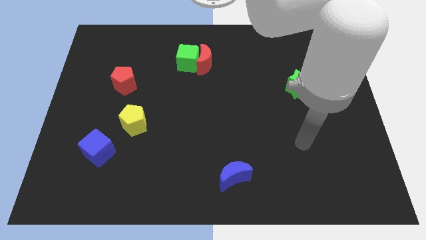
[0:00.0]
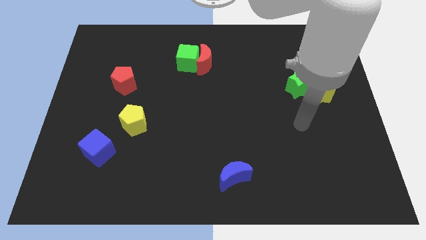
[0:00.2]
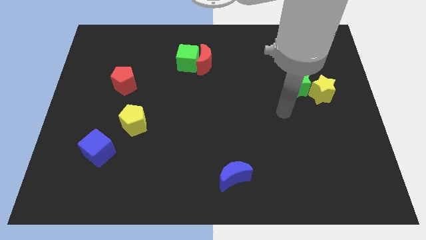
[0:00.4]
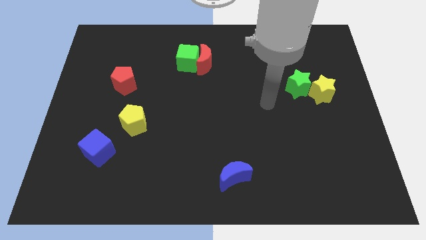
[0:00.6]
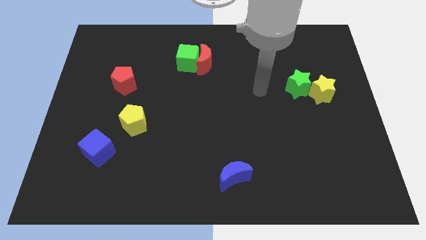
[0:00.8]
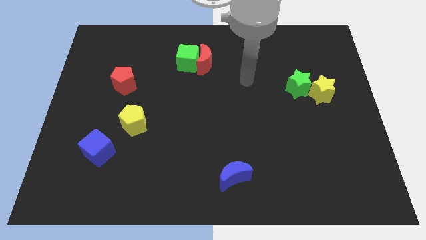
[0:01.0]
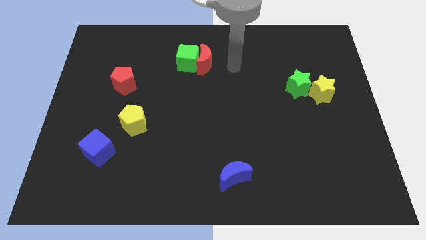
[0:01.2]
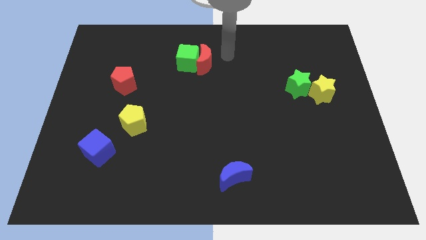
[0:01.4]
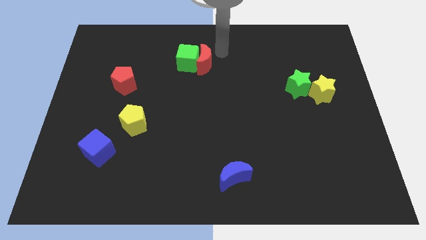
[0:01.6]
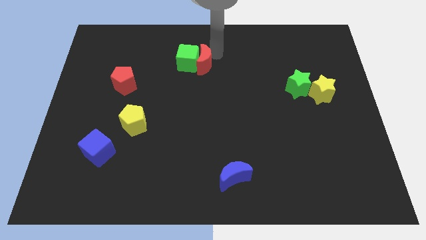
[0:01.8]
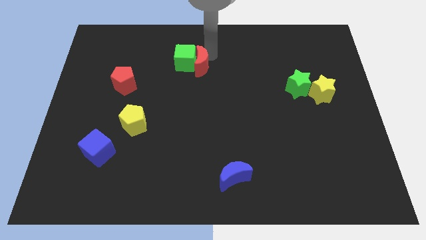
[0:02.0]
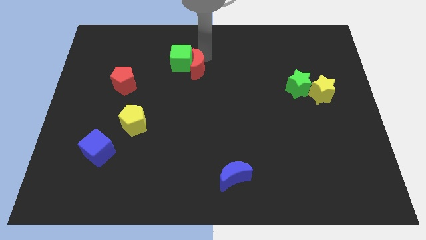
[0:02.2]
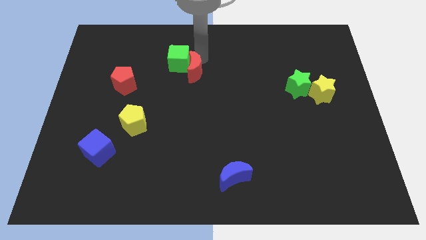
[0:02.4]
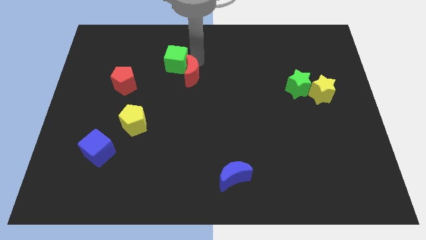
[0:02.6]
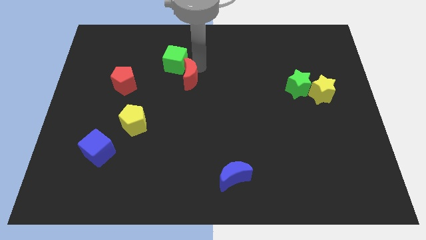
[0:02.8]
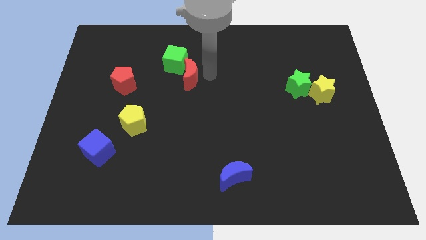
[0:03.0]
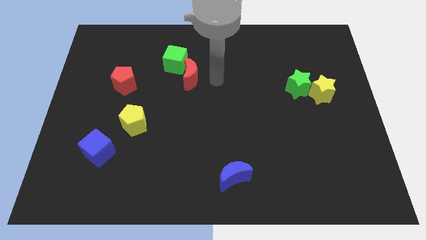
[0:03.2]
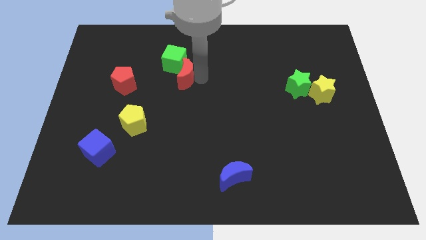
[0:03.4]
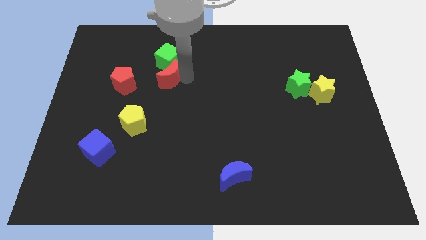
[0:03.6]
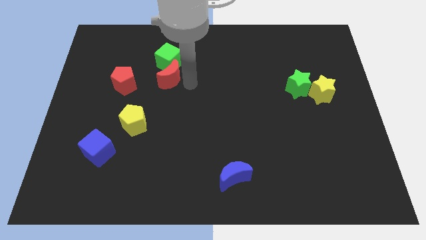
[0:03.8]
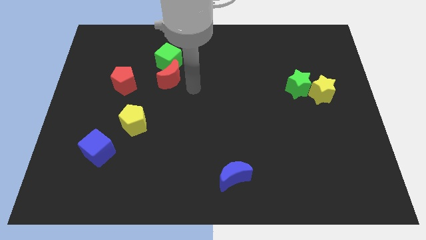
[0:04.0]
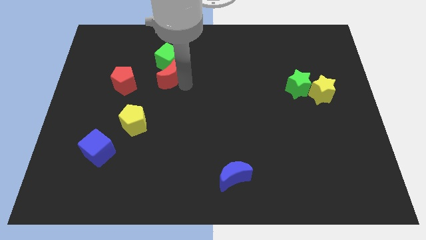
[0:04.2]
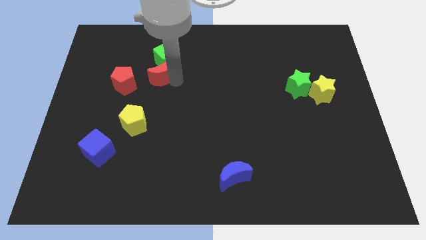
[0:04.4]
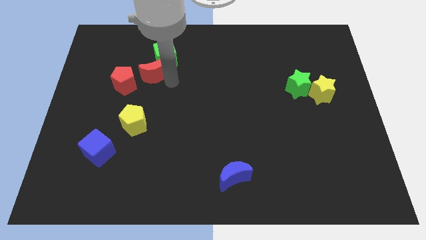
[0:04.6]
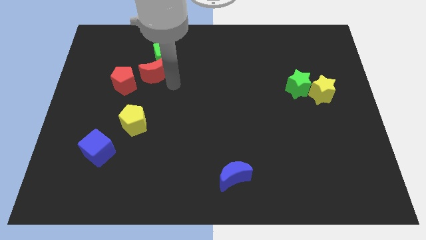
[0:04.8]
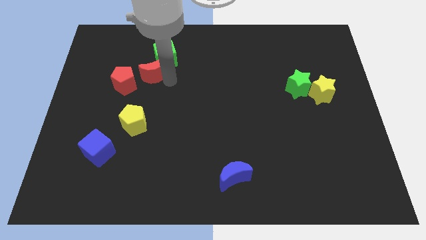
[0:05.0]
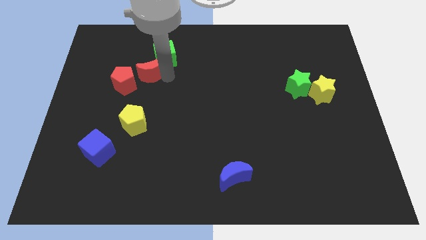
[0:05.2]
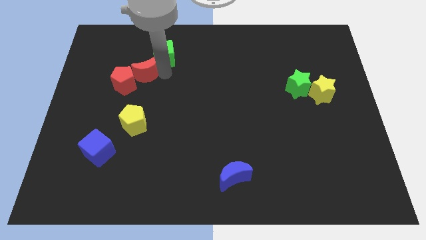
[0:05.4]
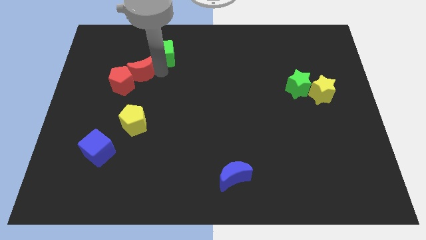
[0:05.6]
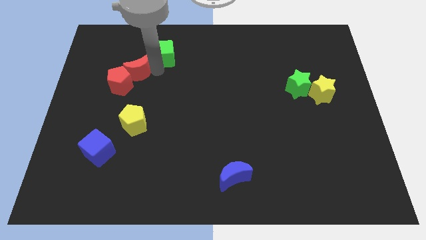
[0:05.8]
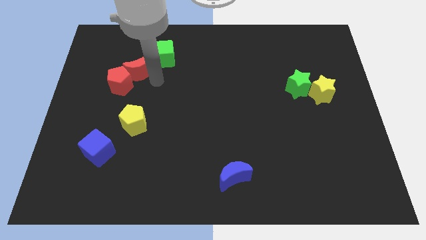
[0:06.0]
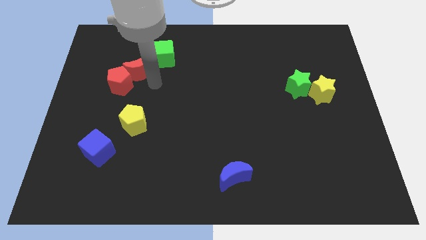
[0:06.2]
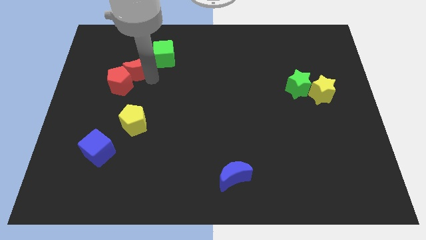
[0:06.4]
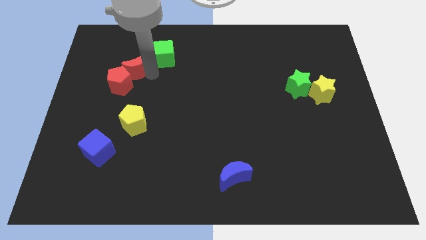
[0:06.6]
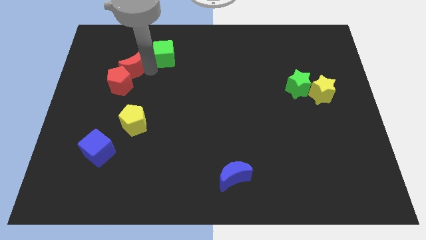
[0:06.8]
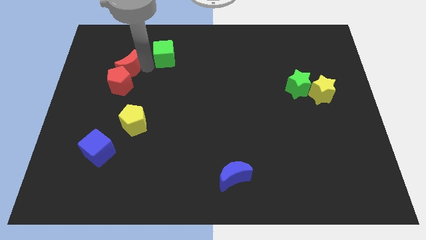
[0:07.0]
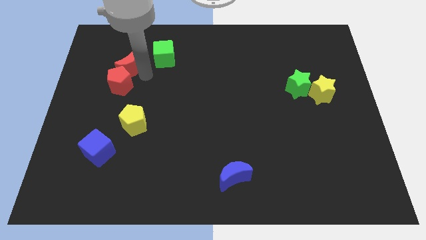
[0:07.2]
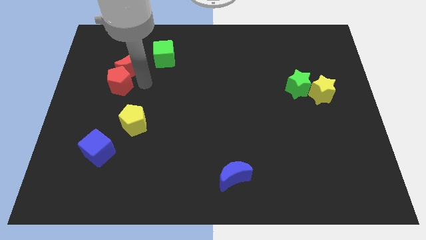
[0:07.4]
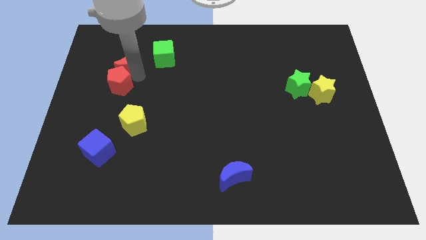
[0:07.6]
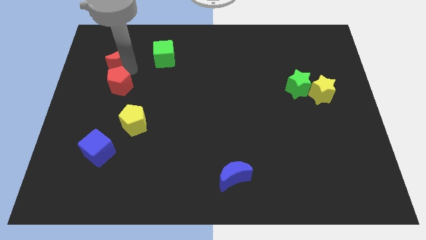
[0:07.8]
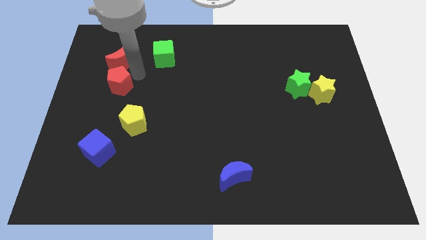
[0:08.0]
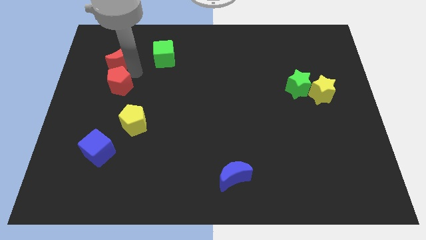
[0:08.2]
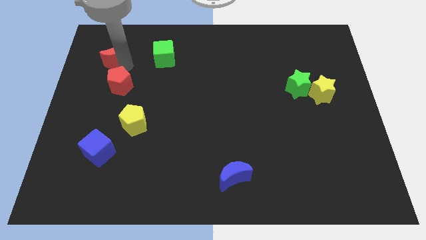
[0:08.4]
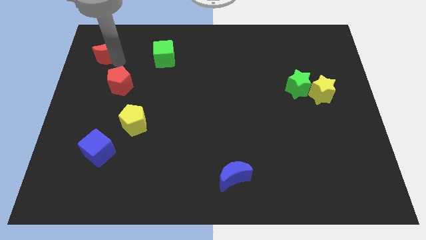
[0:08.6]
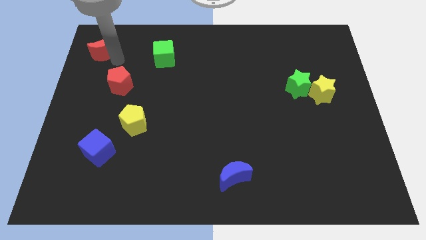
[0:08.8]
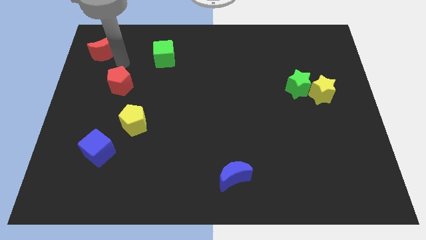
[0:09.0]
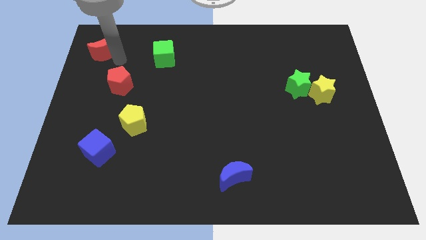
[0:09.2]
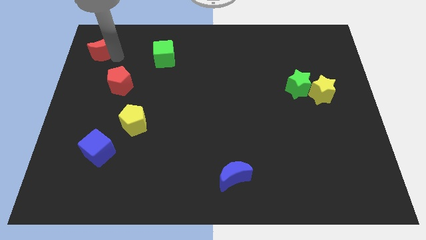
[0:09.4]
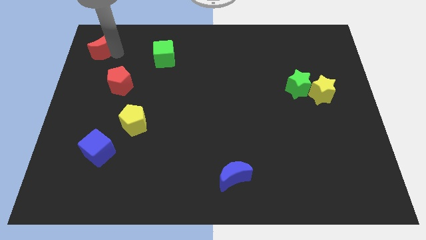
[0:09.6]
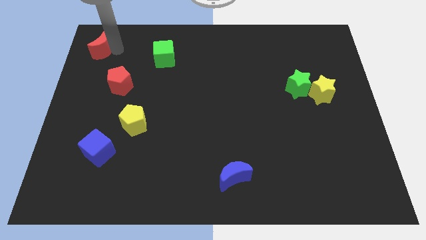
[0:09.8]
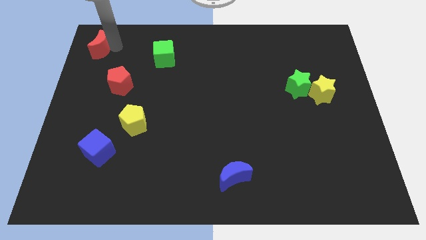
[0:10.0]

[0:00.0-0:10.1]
slide the red moon to the upper left corner

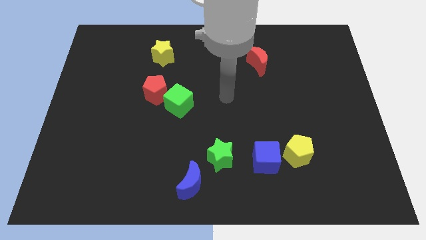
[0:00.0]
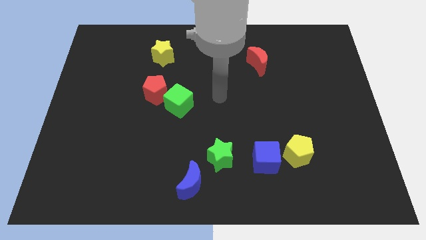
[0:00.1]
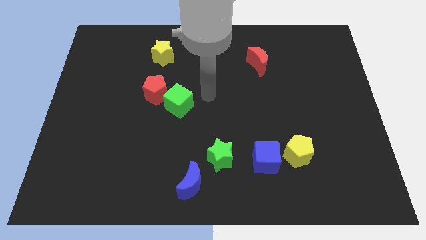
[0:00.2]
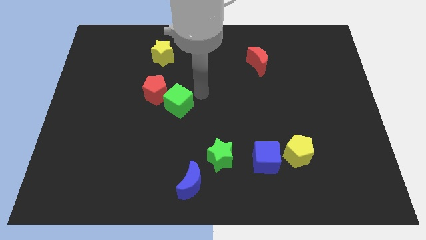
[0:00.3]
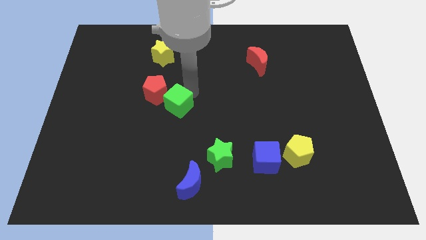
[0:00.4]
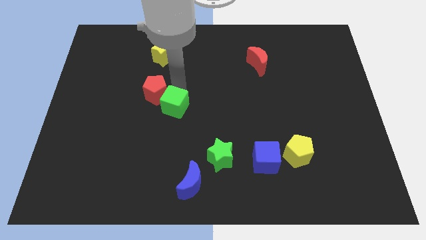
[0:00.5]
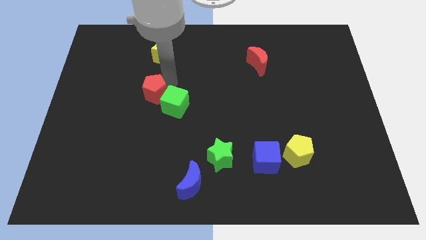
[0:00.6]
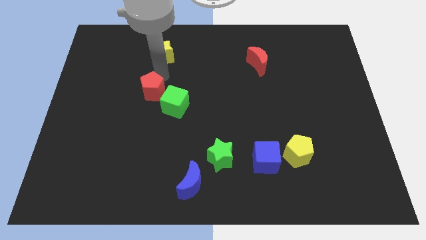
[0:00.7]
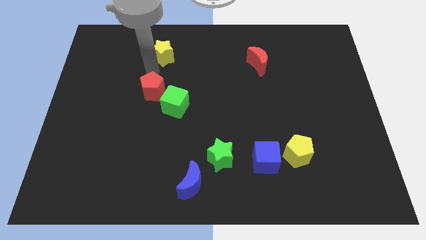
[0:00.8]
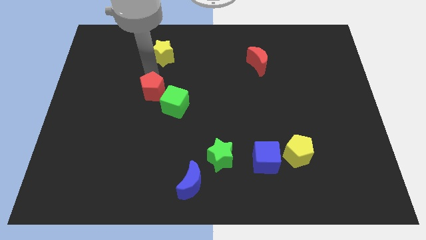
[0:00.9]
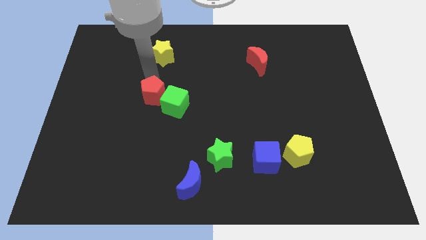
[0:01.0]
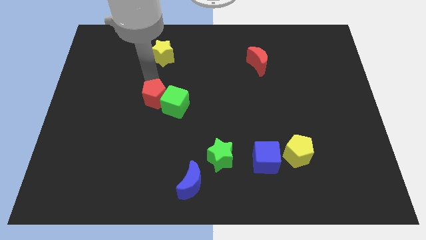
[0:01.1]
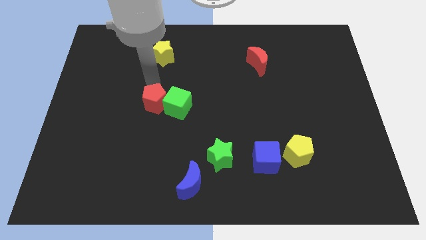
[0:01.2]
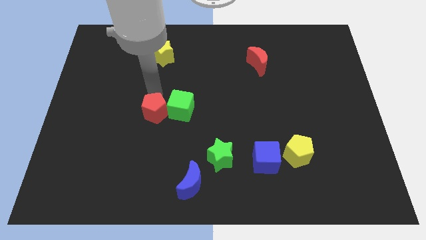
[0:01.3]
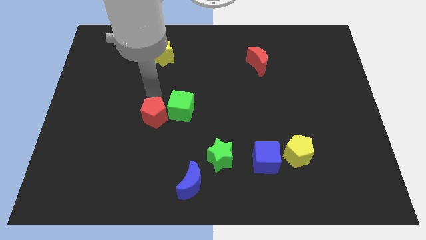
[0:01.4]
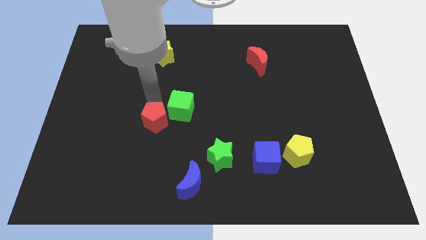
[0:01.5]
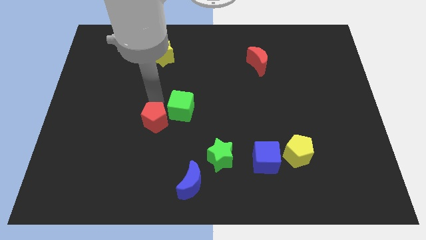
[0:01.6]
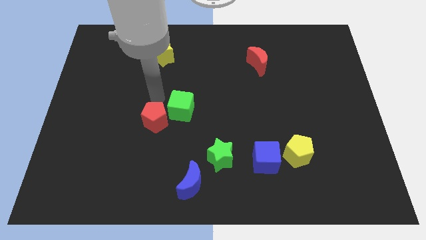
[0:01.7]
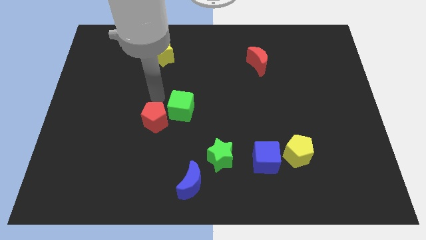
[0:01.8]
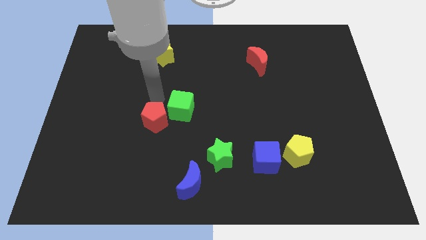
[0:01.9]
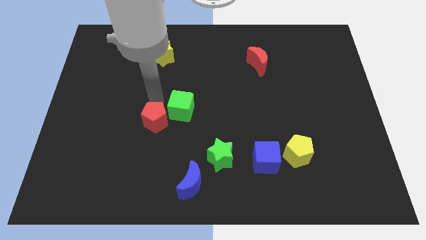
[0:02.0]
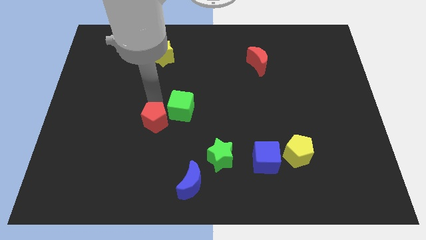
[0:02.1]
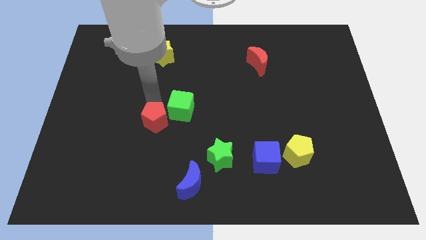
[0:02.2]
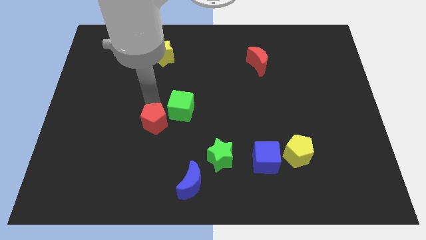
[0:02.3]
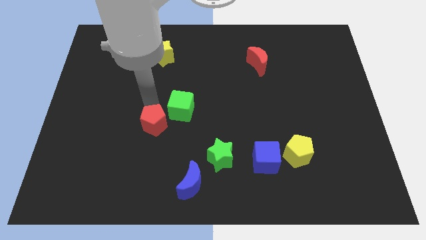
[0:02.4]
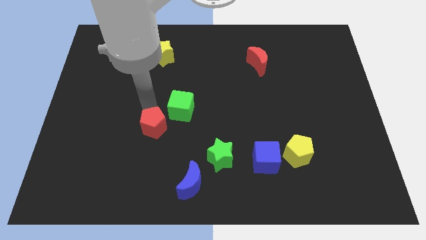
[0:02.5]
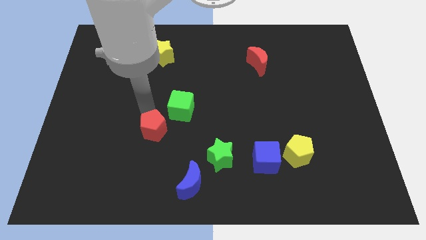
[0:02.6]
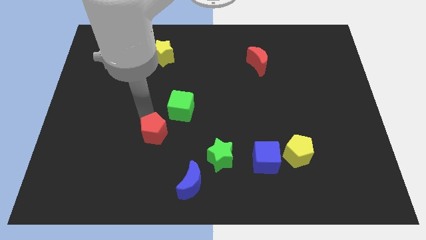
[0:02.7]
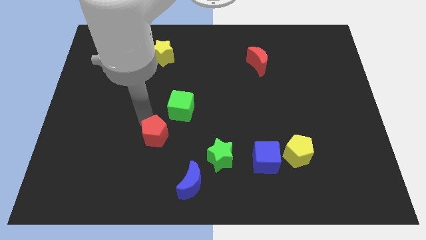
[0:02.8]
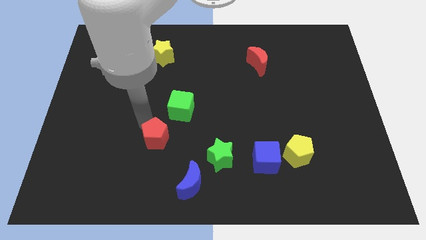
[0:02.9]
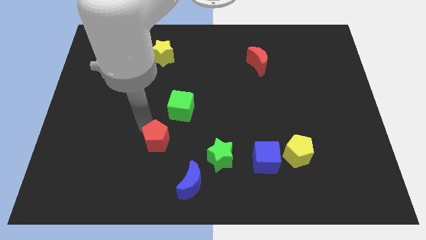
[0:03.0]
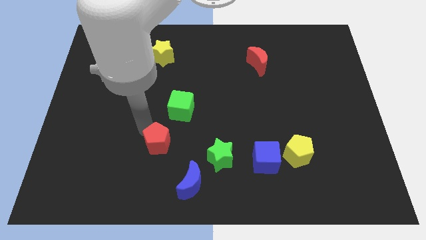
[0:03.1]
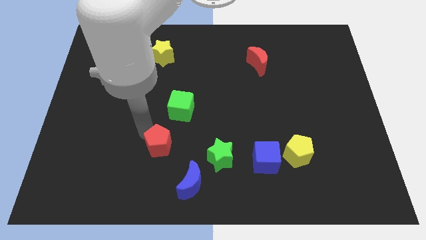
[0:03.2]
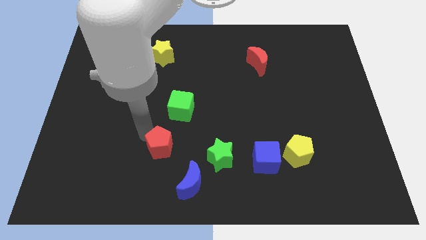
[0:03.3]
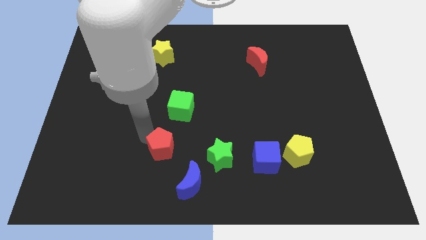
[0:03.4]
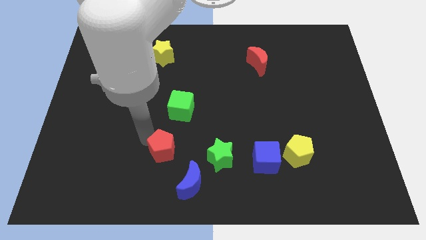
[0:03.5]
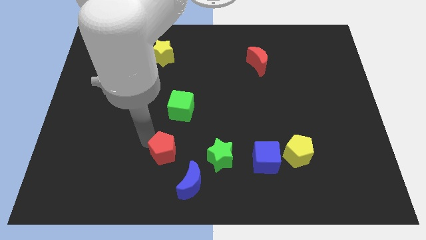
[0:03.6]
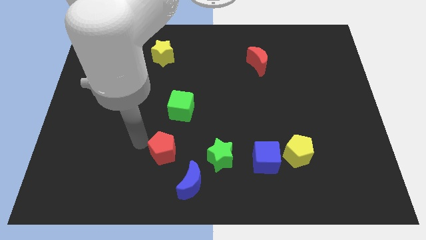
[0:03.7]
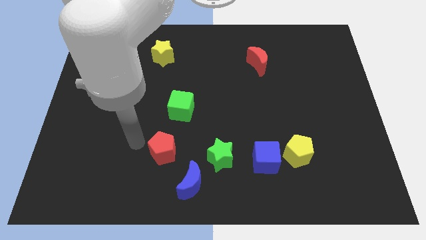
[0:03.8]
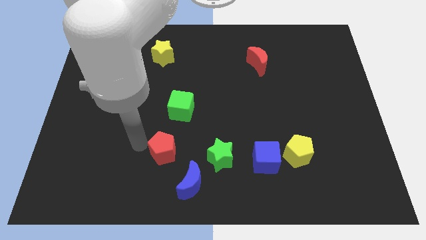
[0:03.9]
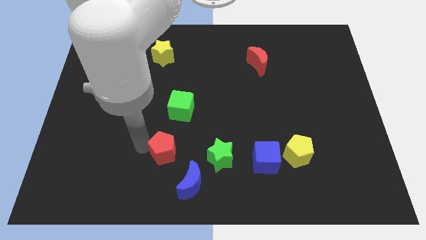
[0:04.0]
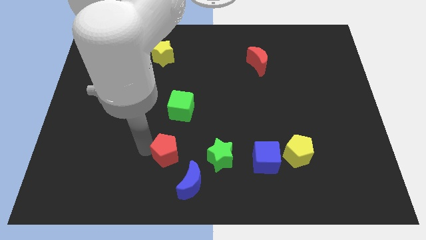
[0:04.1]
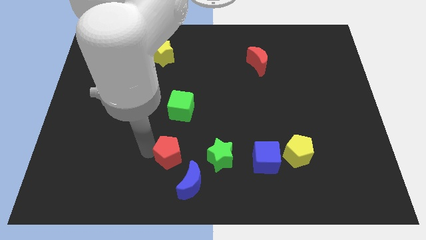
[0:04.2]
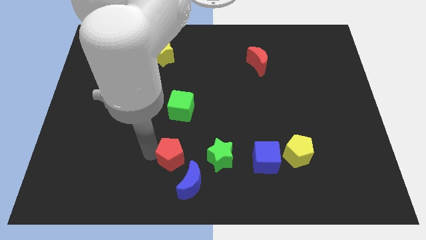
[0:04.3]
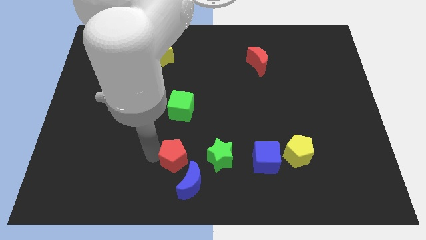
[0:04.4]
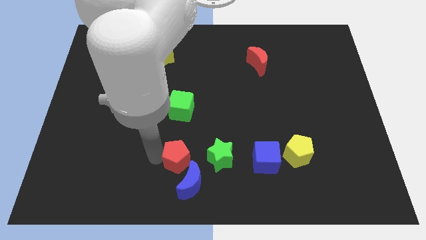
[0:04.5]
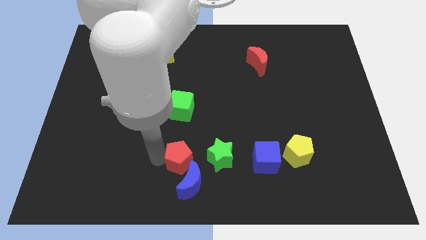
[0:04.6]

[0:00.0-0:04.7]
put the red pentagon to the bottom
